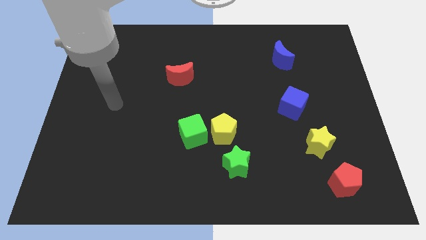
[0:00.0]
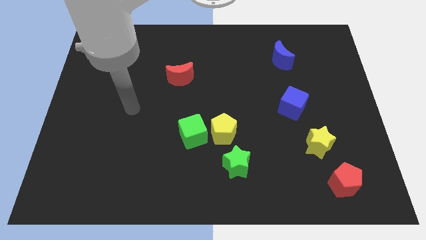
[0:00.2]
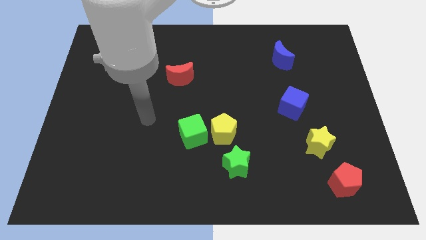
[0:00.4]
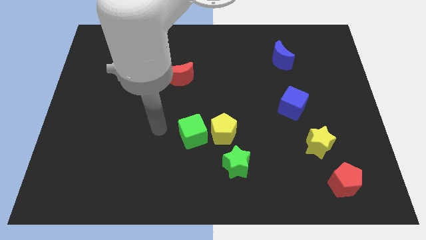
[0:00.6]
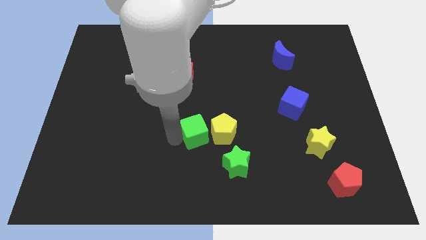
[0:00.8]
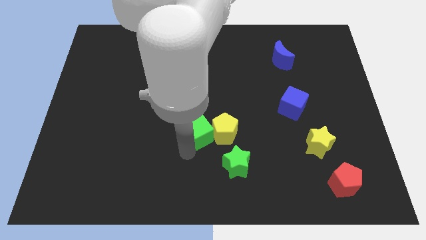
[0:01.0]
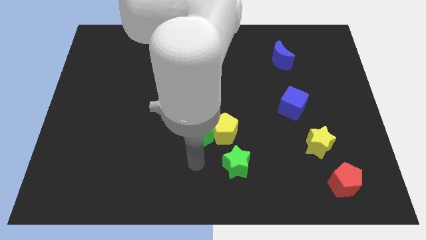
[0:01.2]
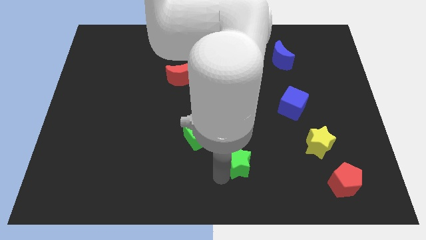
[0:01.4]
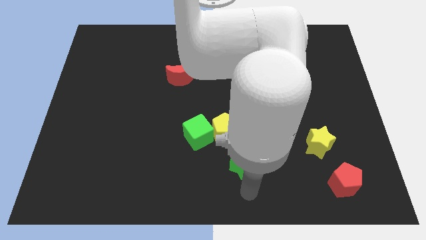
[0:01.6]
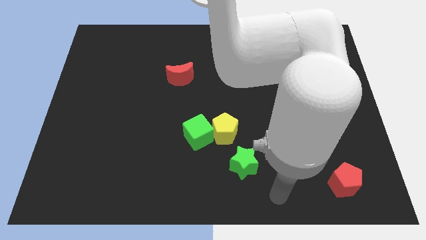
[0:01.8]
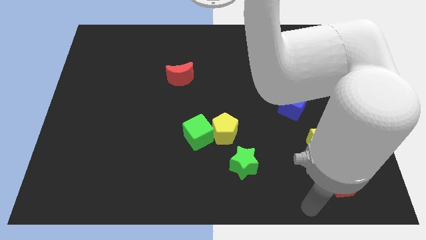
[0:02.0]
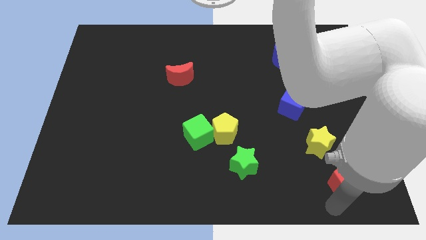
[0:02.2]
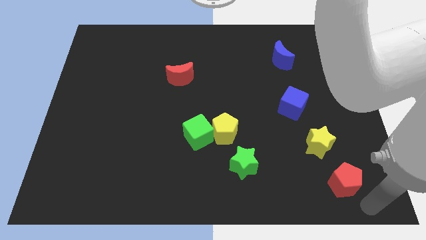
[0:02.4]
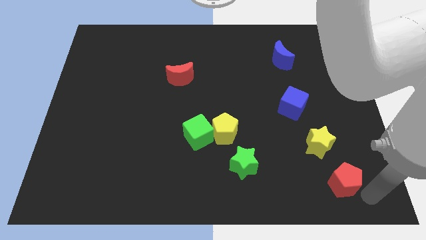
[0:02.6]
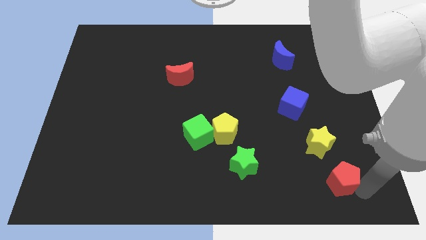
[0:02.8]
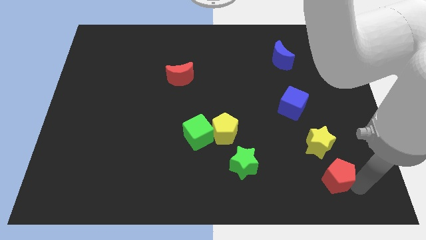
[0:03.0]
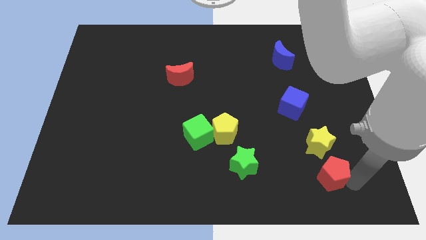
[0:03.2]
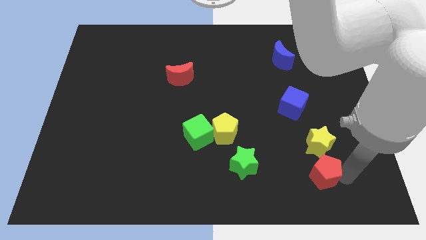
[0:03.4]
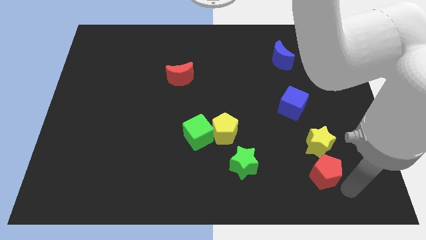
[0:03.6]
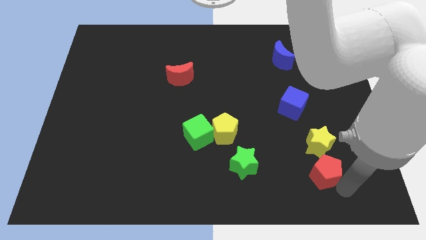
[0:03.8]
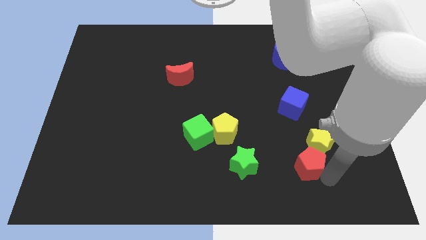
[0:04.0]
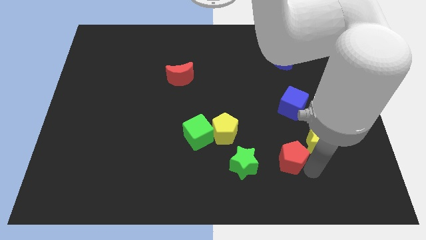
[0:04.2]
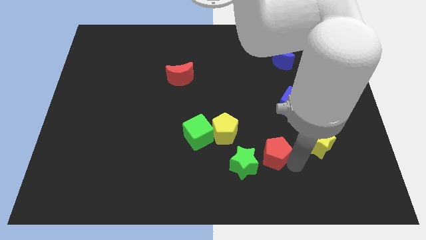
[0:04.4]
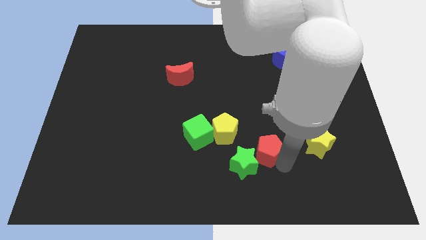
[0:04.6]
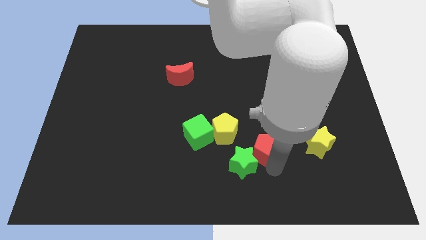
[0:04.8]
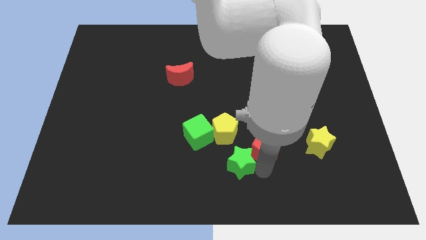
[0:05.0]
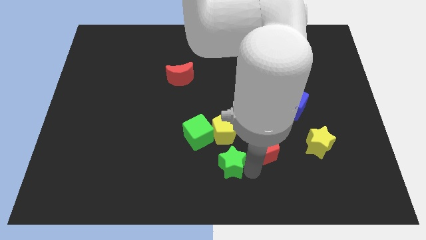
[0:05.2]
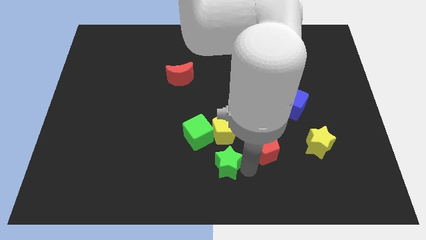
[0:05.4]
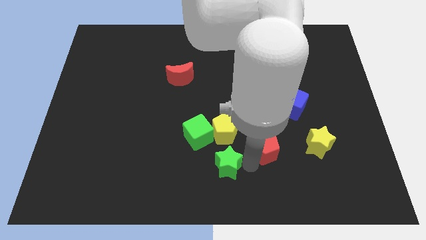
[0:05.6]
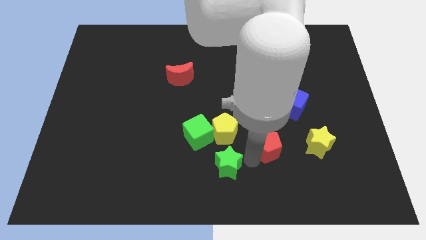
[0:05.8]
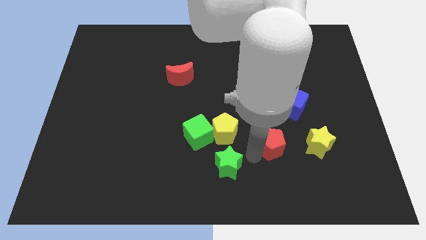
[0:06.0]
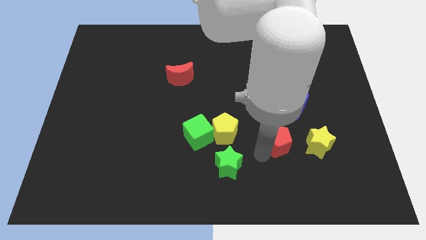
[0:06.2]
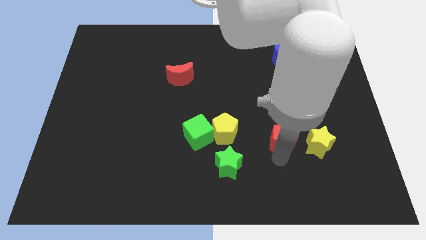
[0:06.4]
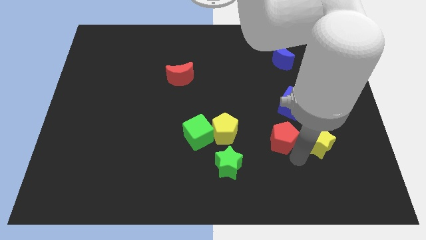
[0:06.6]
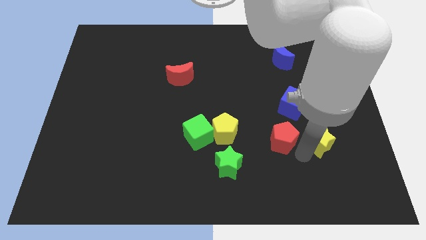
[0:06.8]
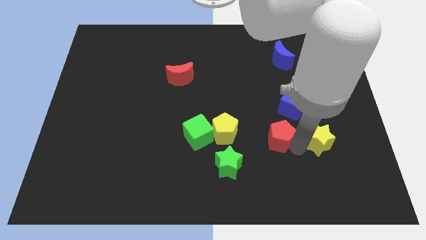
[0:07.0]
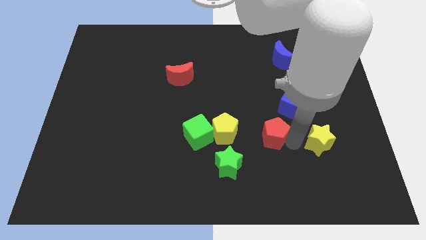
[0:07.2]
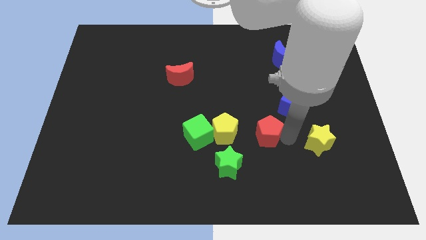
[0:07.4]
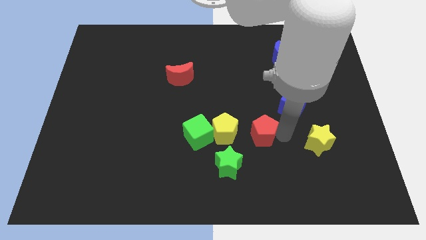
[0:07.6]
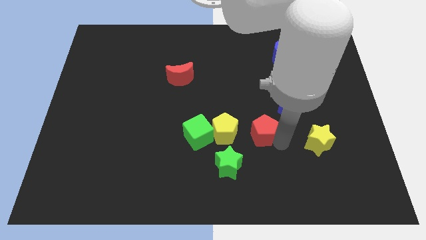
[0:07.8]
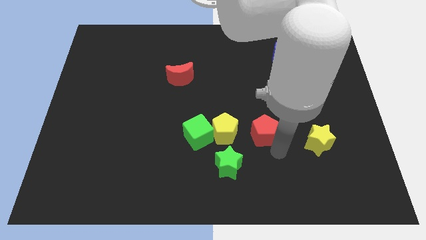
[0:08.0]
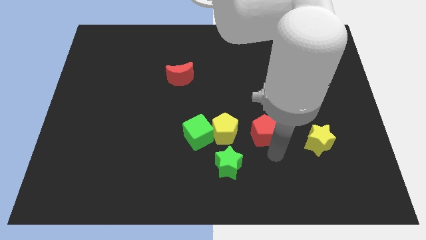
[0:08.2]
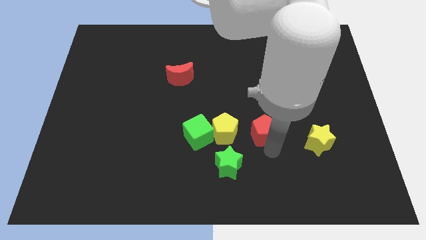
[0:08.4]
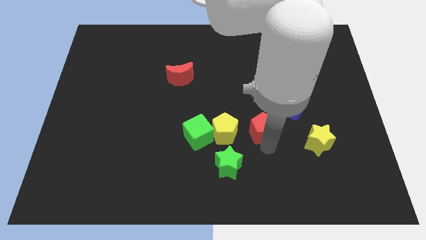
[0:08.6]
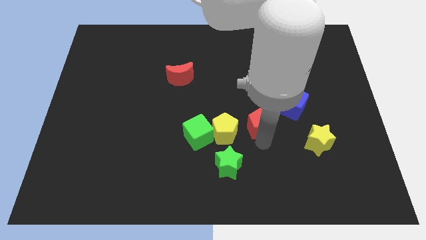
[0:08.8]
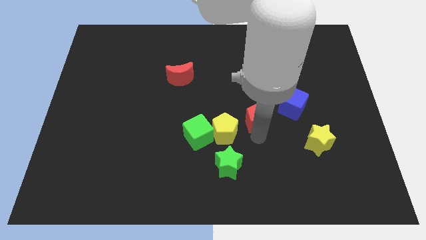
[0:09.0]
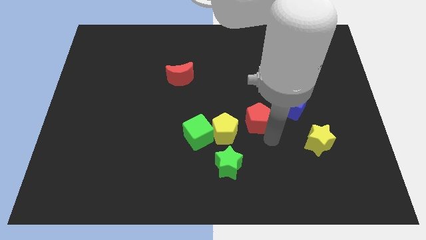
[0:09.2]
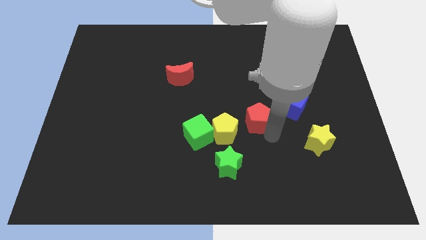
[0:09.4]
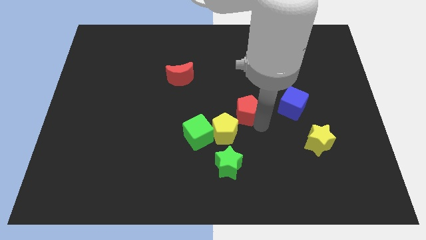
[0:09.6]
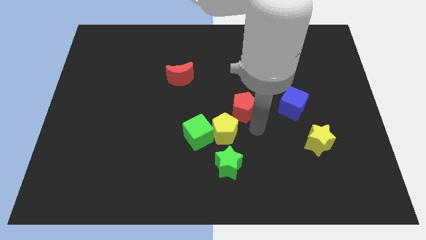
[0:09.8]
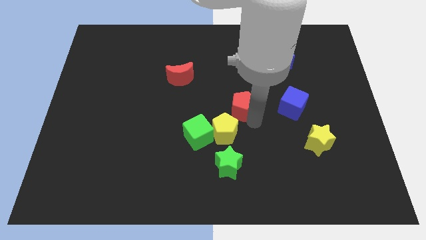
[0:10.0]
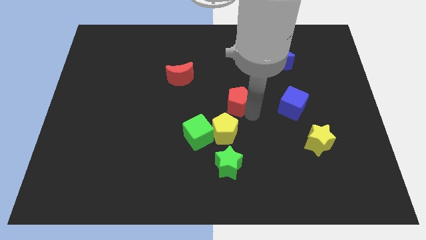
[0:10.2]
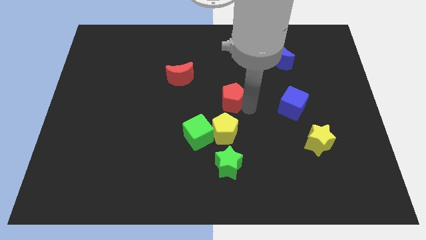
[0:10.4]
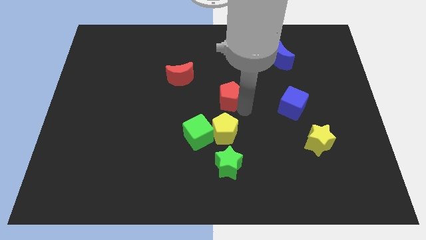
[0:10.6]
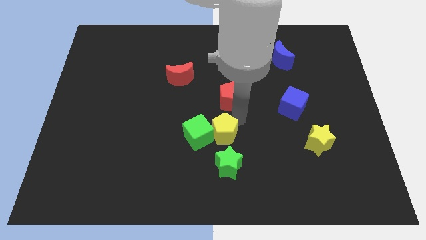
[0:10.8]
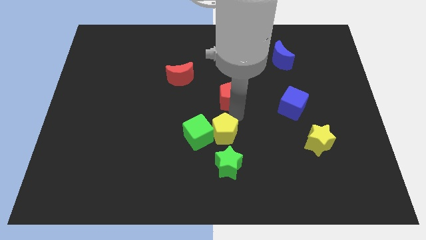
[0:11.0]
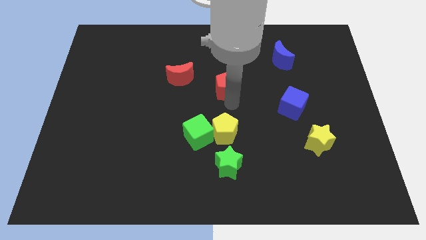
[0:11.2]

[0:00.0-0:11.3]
move the red pentagon to the right of the red moon

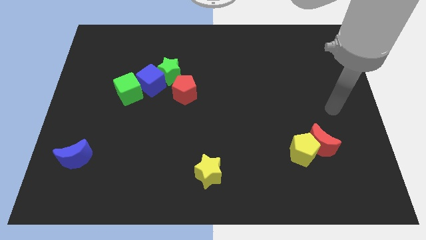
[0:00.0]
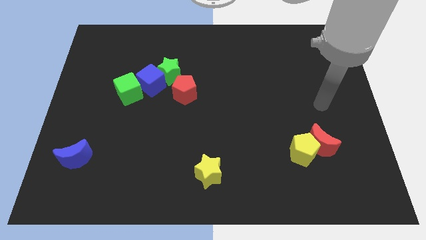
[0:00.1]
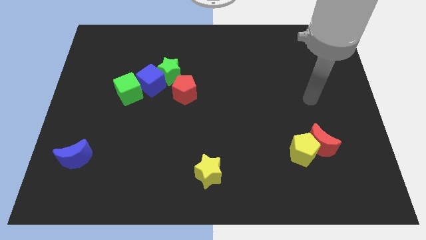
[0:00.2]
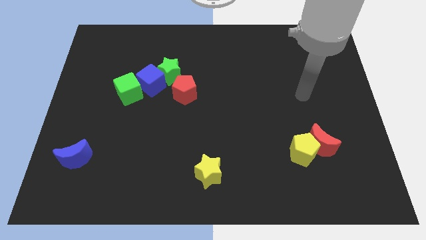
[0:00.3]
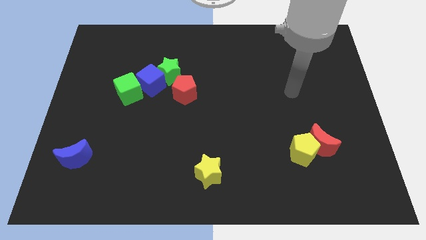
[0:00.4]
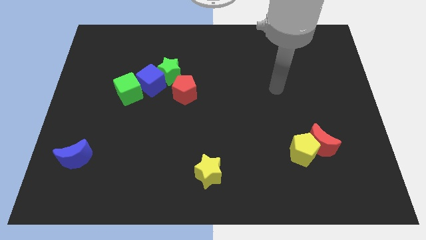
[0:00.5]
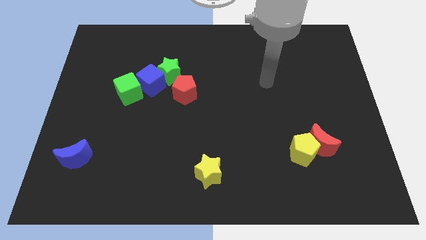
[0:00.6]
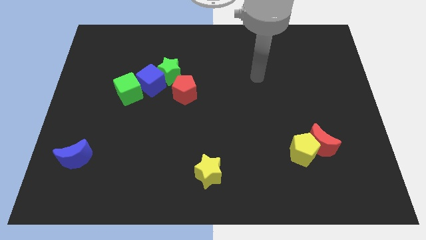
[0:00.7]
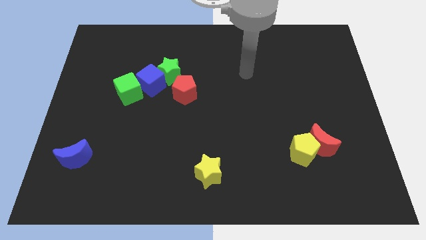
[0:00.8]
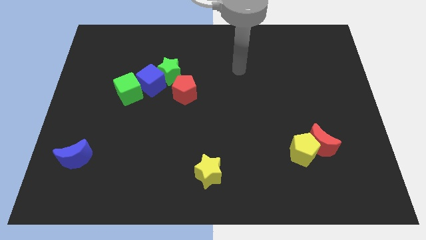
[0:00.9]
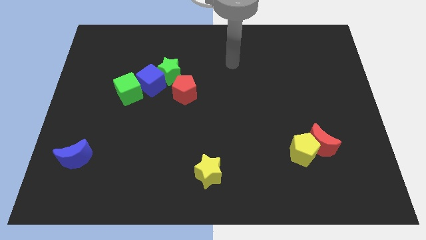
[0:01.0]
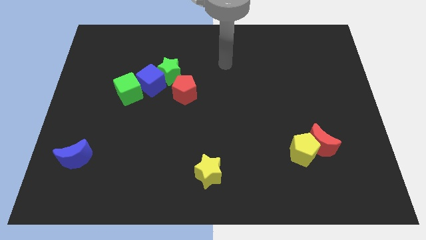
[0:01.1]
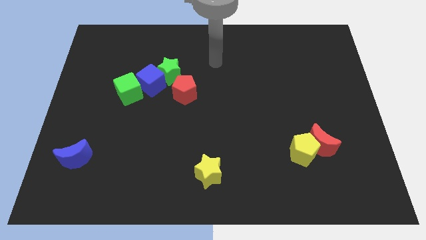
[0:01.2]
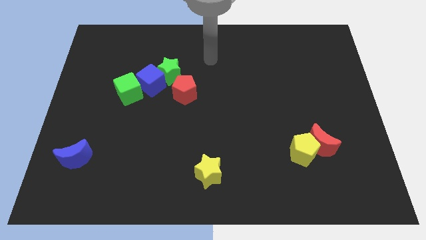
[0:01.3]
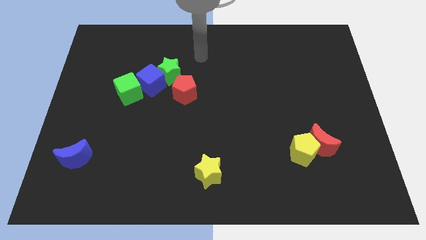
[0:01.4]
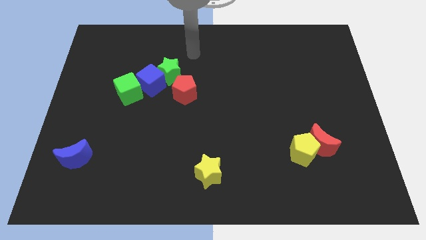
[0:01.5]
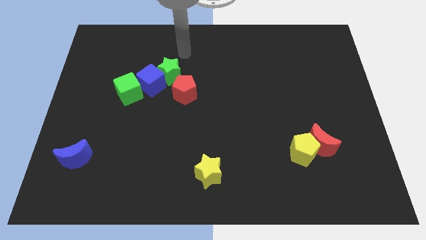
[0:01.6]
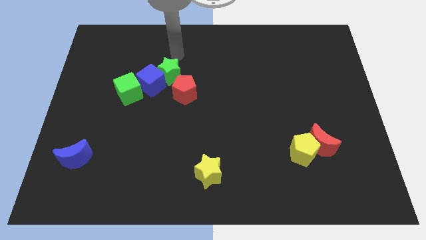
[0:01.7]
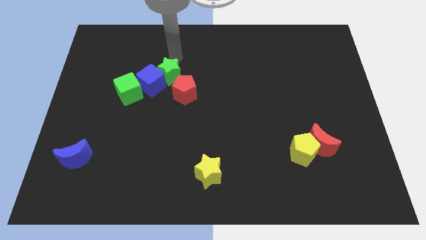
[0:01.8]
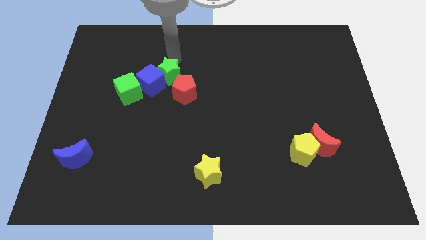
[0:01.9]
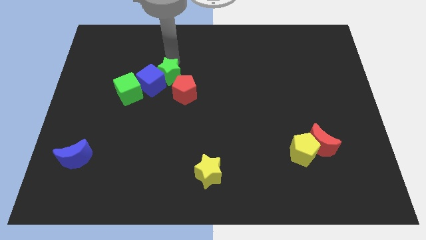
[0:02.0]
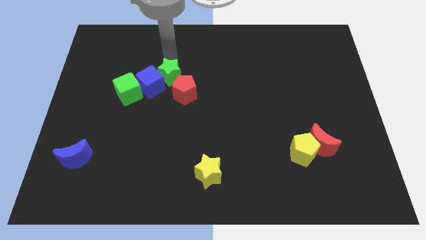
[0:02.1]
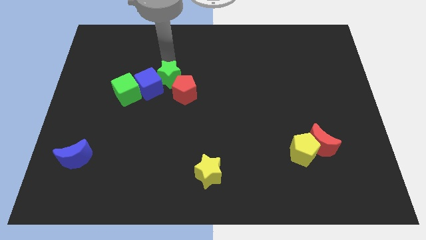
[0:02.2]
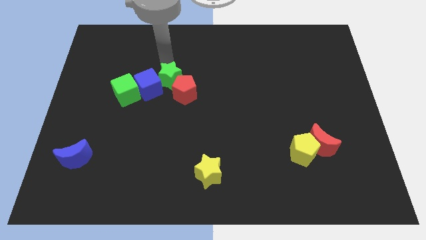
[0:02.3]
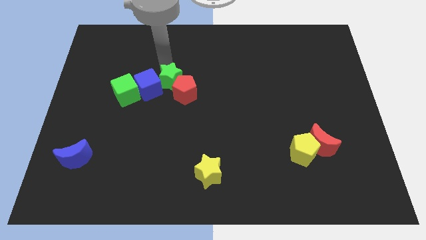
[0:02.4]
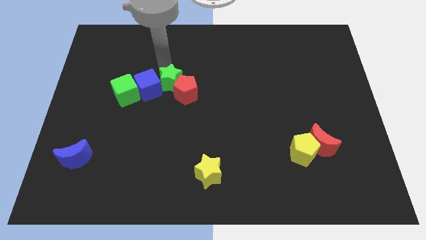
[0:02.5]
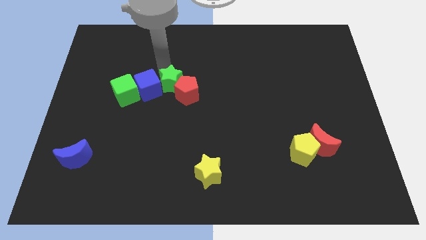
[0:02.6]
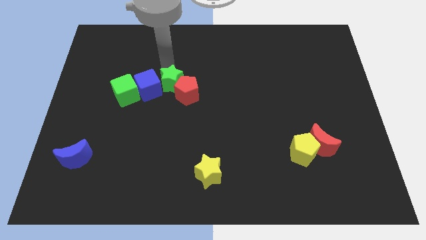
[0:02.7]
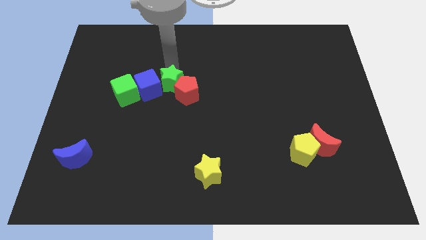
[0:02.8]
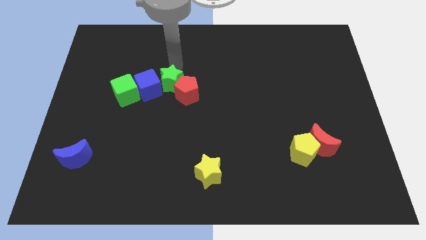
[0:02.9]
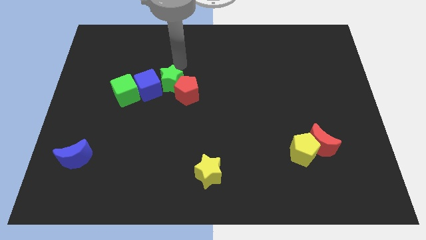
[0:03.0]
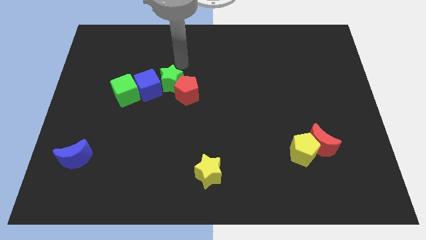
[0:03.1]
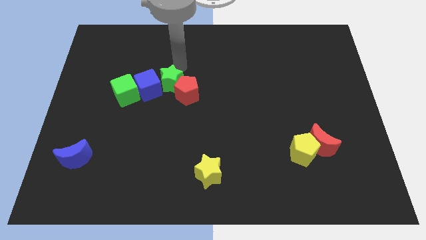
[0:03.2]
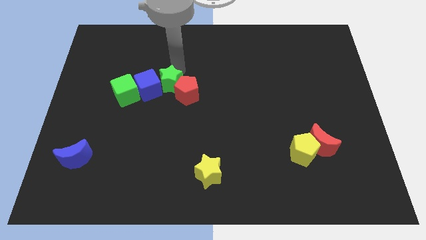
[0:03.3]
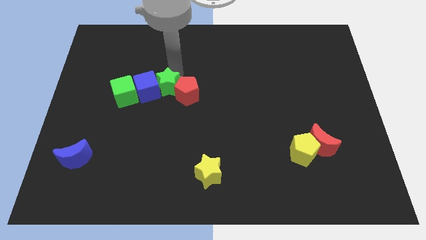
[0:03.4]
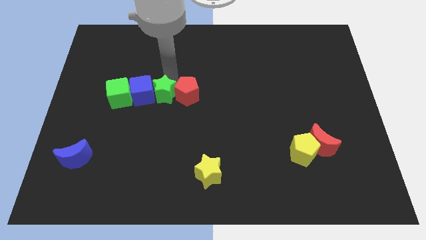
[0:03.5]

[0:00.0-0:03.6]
slide the green star to the bottom left of the red pentagon
